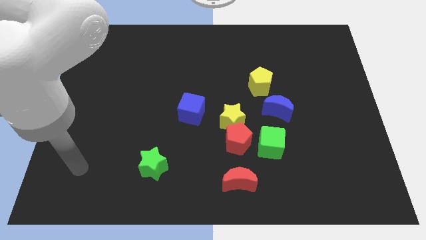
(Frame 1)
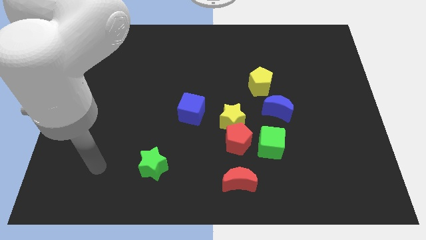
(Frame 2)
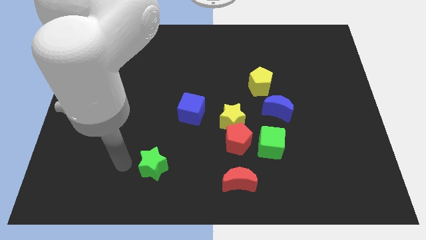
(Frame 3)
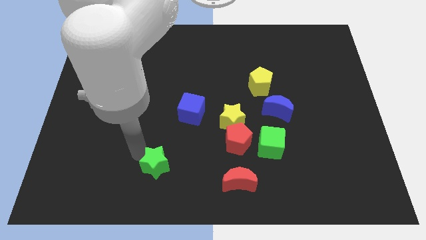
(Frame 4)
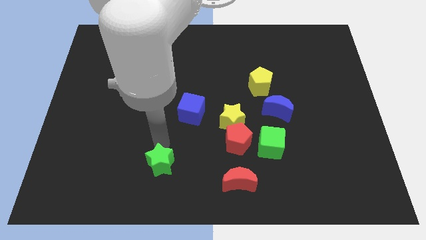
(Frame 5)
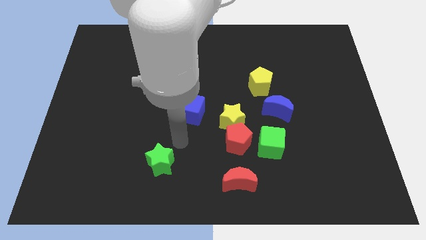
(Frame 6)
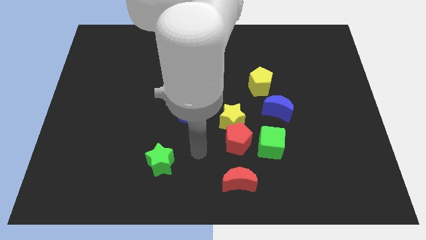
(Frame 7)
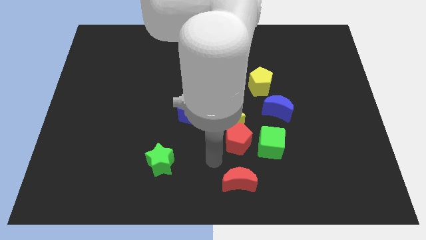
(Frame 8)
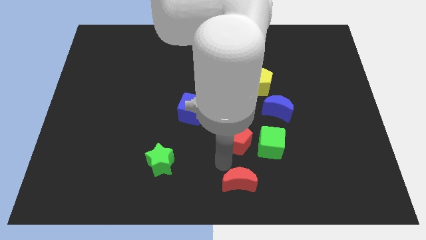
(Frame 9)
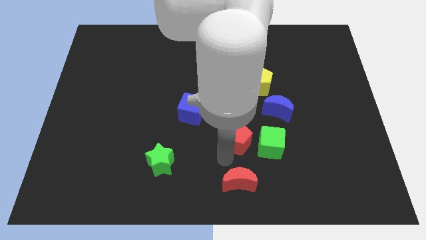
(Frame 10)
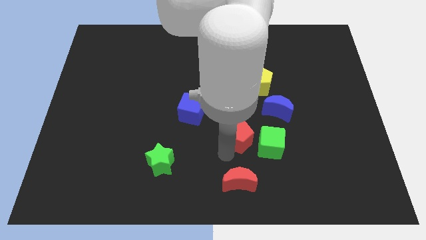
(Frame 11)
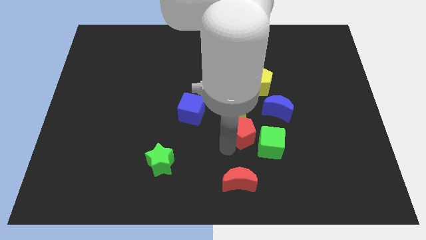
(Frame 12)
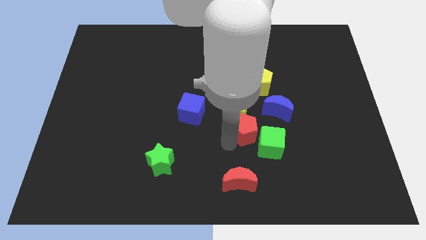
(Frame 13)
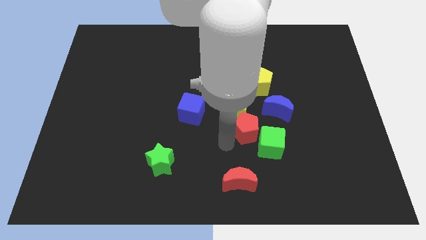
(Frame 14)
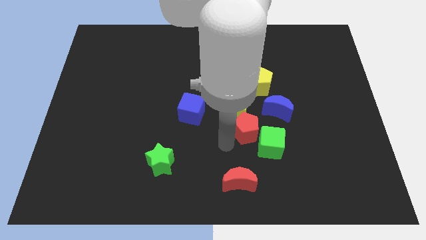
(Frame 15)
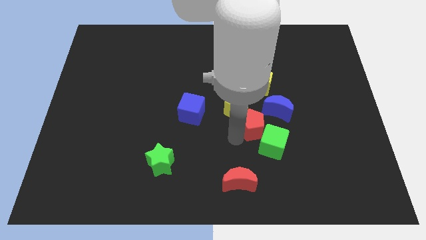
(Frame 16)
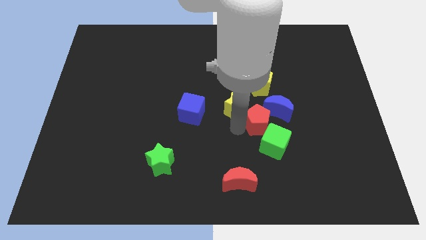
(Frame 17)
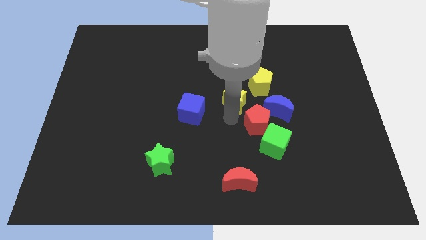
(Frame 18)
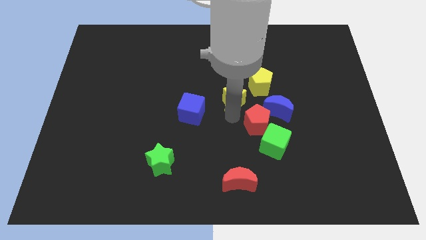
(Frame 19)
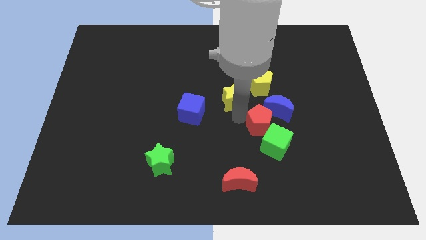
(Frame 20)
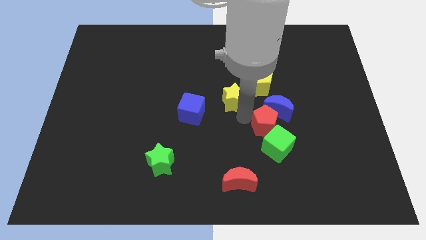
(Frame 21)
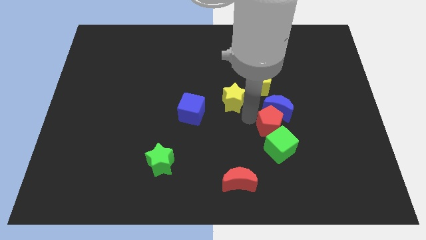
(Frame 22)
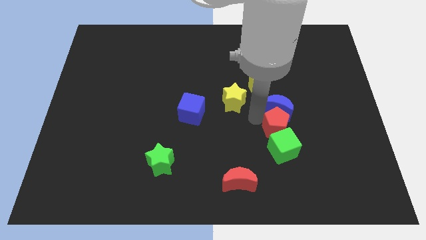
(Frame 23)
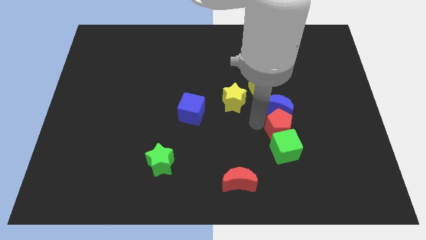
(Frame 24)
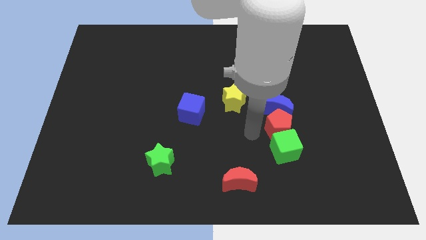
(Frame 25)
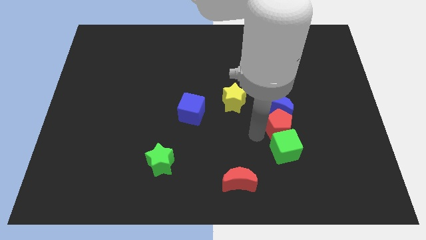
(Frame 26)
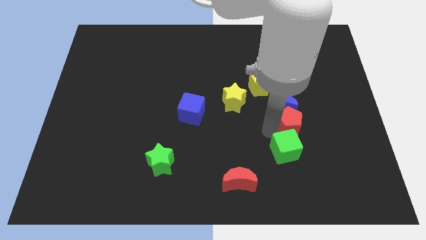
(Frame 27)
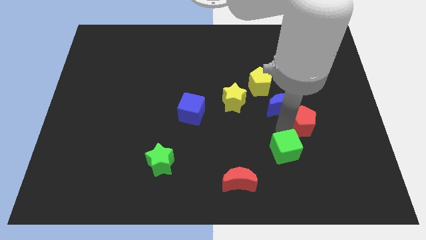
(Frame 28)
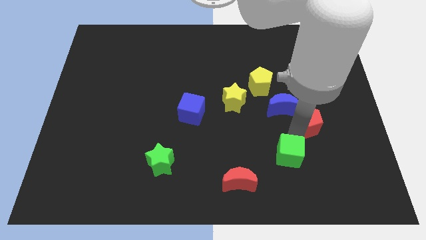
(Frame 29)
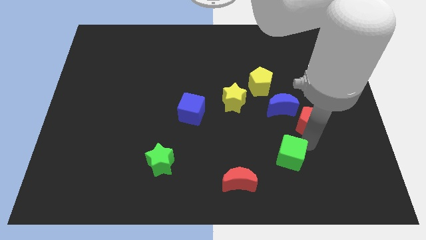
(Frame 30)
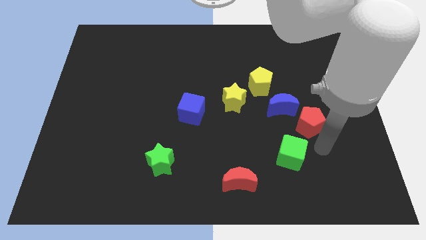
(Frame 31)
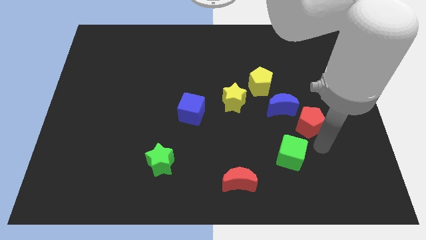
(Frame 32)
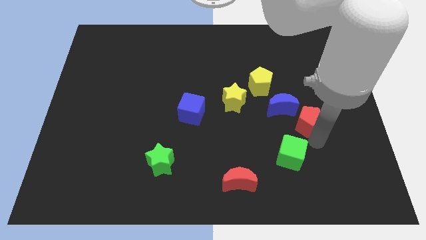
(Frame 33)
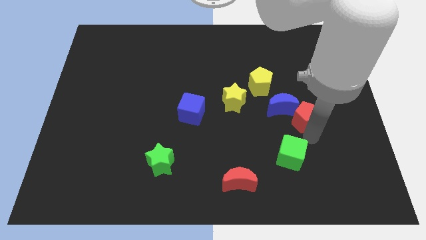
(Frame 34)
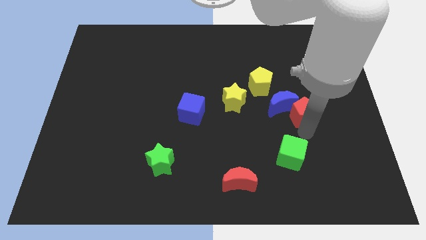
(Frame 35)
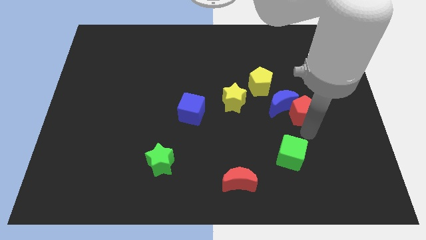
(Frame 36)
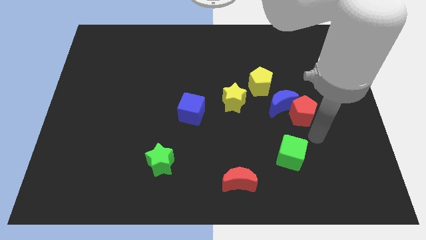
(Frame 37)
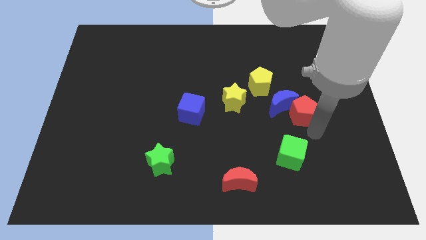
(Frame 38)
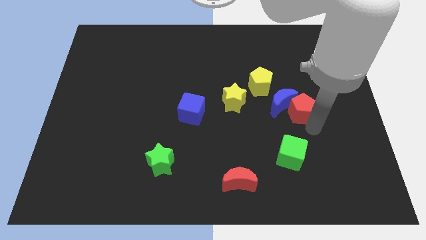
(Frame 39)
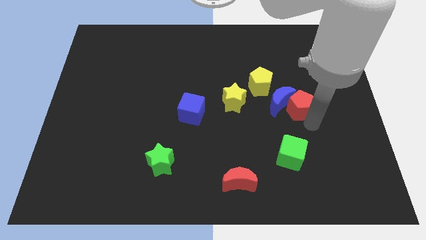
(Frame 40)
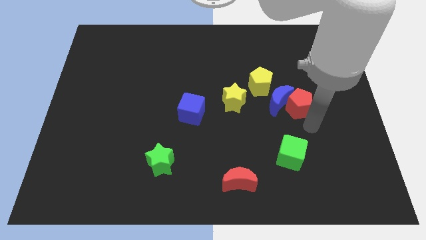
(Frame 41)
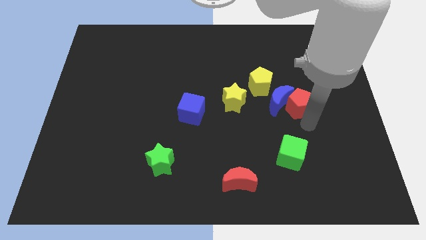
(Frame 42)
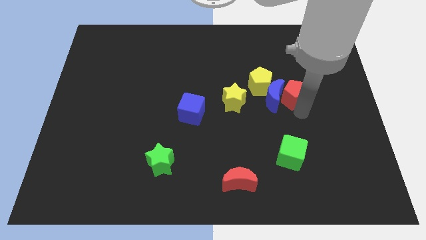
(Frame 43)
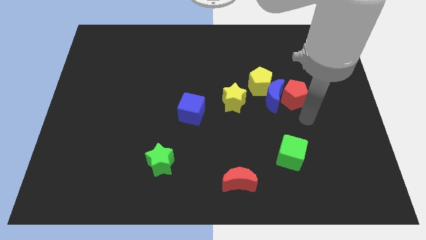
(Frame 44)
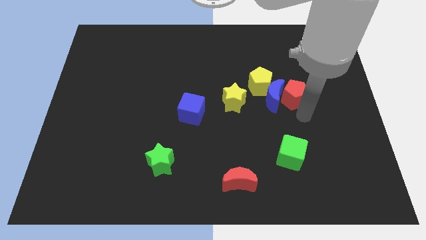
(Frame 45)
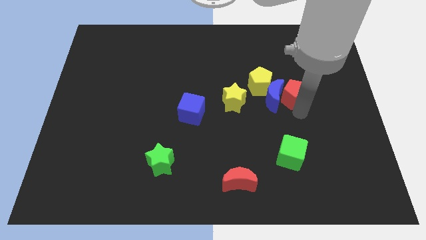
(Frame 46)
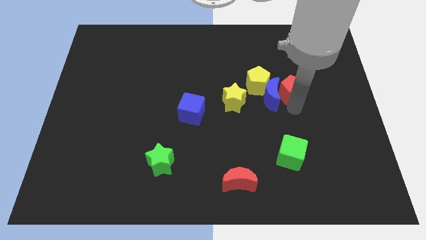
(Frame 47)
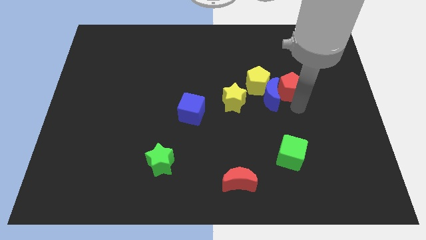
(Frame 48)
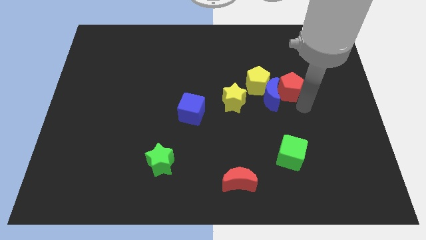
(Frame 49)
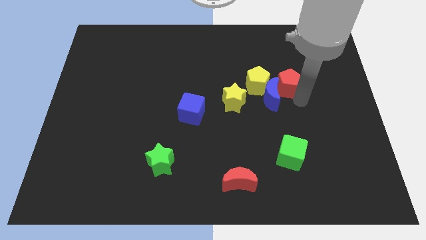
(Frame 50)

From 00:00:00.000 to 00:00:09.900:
move the red pentagon to the top of the blue moon

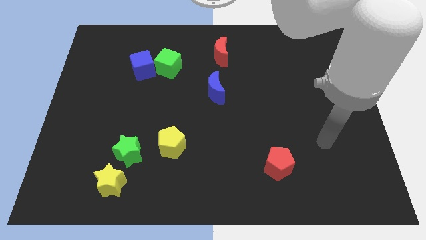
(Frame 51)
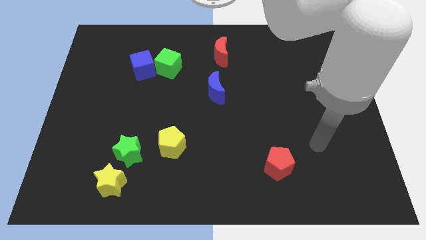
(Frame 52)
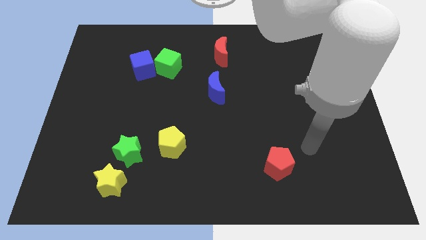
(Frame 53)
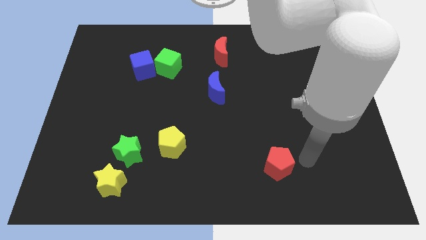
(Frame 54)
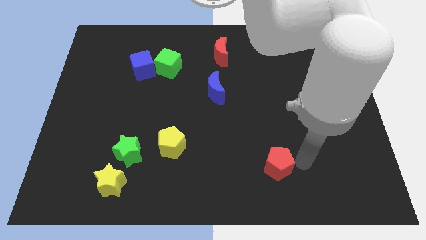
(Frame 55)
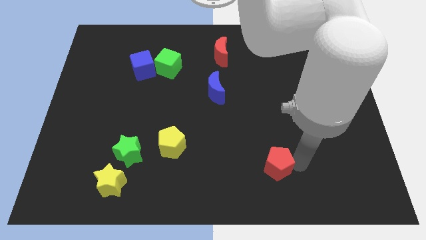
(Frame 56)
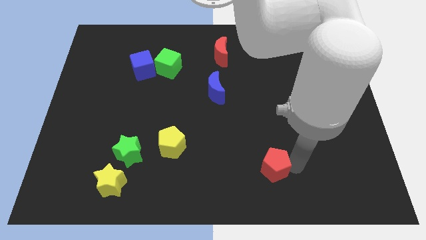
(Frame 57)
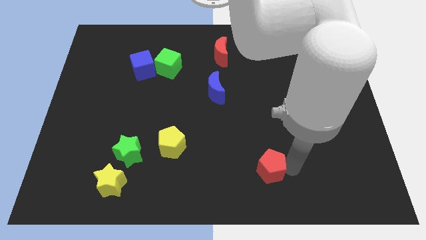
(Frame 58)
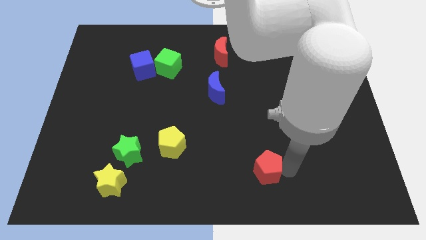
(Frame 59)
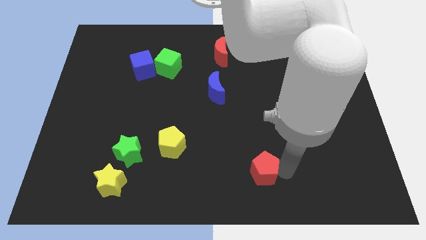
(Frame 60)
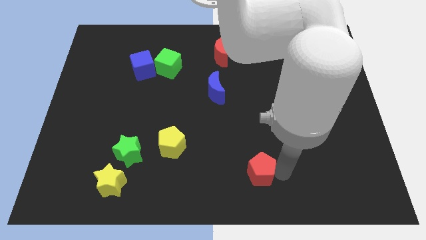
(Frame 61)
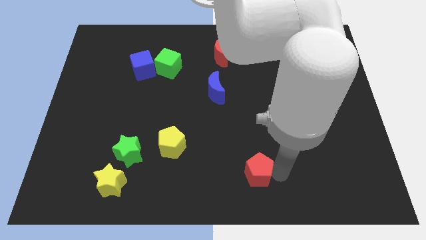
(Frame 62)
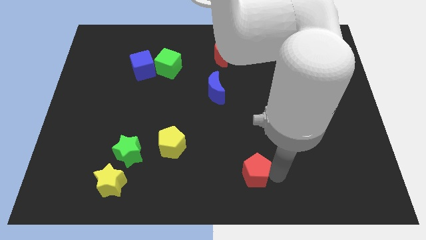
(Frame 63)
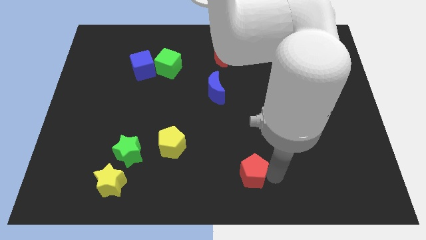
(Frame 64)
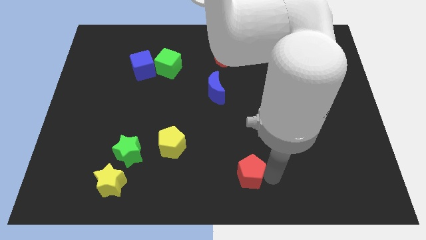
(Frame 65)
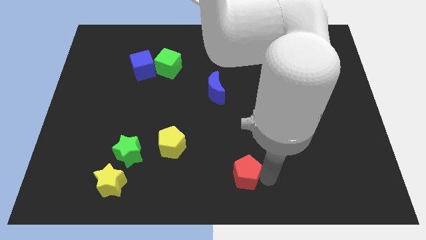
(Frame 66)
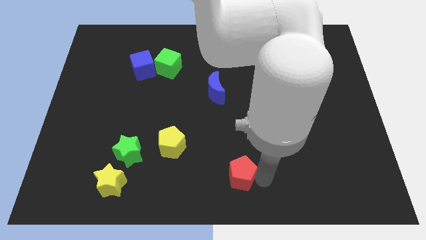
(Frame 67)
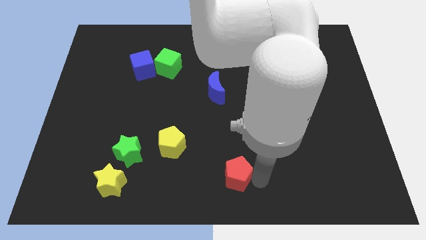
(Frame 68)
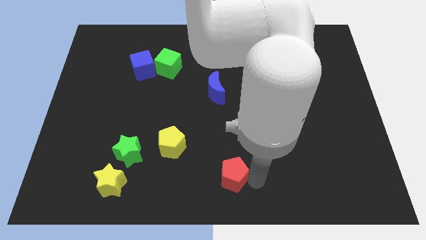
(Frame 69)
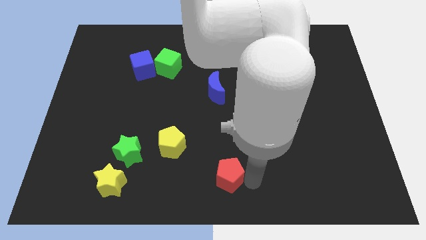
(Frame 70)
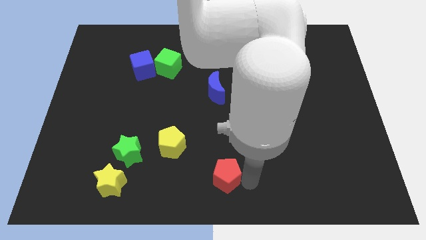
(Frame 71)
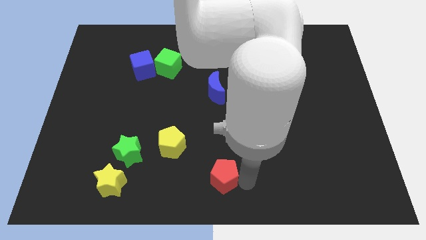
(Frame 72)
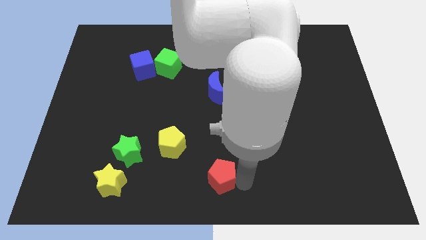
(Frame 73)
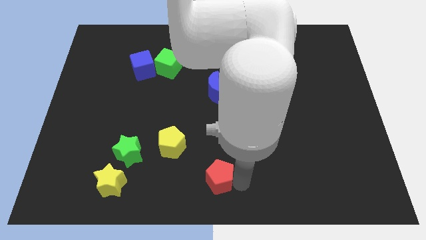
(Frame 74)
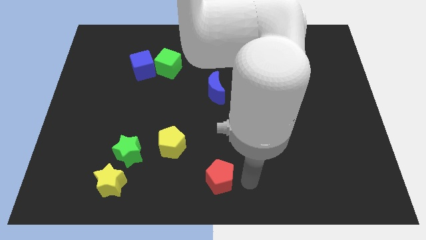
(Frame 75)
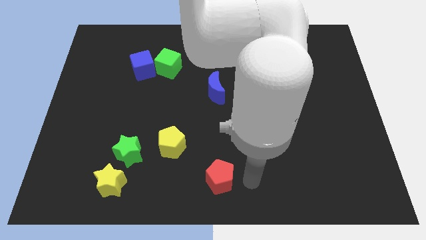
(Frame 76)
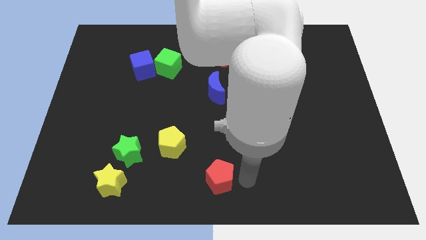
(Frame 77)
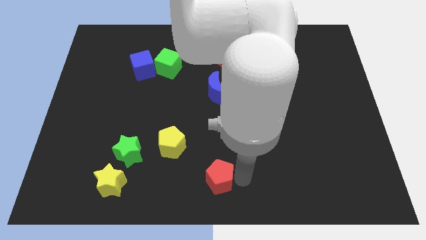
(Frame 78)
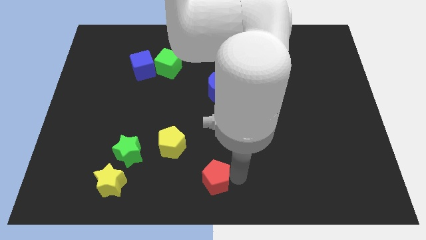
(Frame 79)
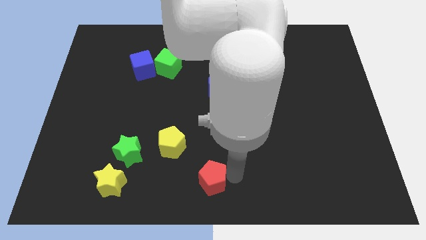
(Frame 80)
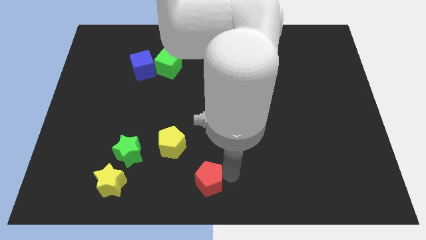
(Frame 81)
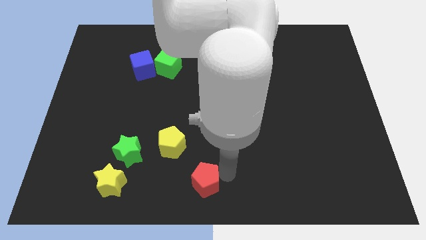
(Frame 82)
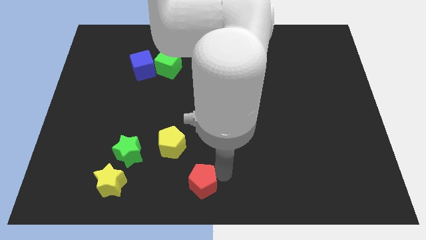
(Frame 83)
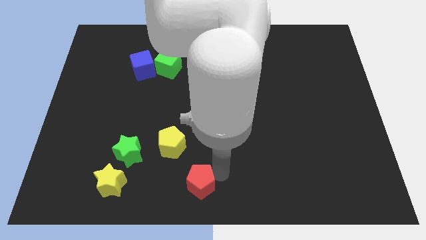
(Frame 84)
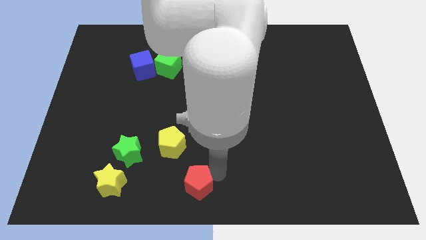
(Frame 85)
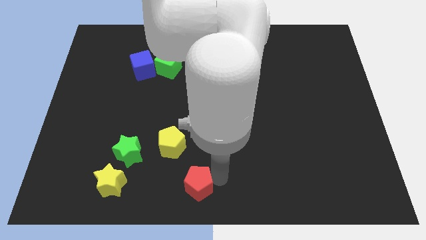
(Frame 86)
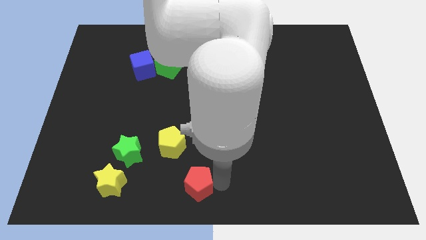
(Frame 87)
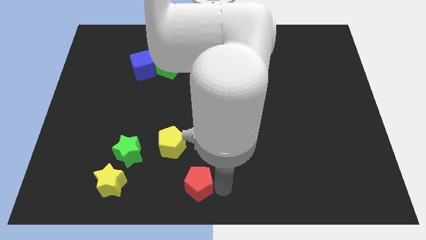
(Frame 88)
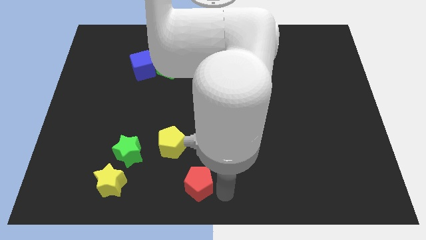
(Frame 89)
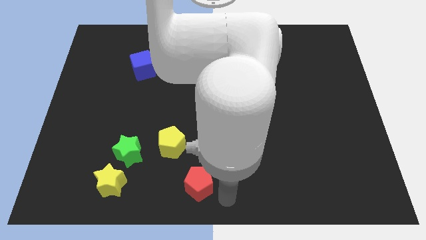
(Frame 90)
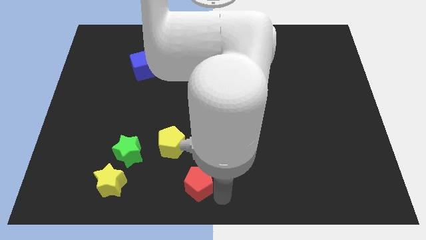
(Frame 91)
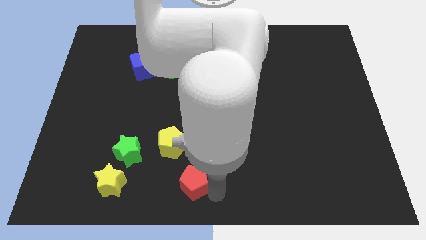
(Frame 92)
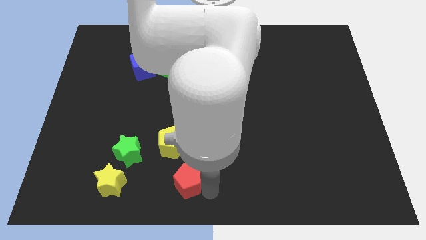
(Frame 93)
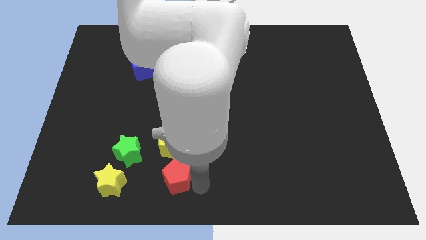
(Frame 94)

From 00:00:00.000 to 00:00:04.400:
slide the red pentagon to the bottom right side of the green star
